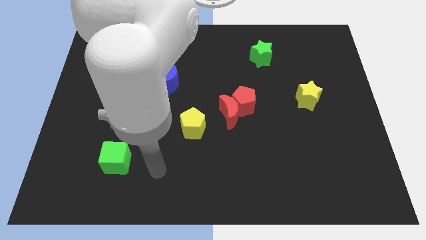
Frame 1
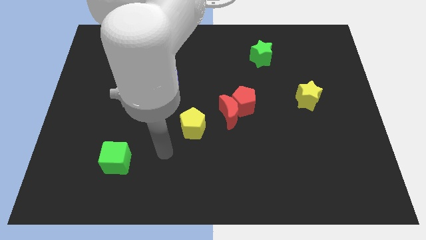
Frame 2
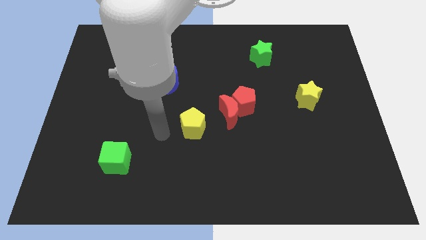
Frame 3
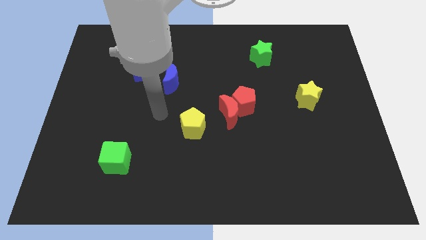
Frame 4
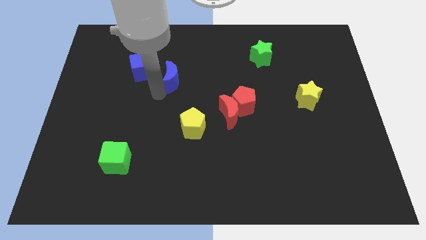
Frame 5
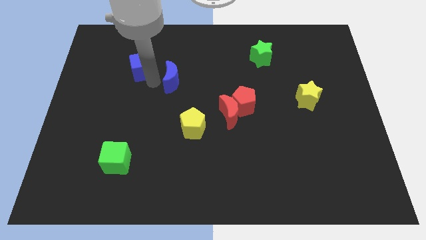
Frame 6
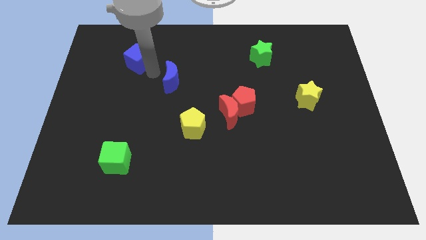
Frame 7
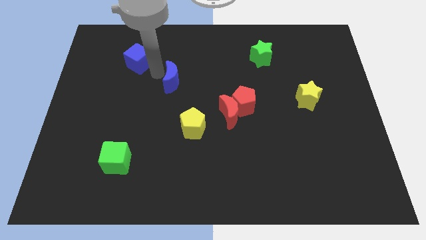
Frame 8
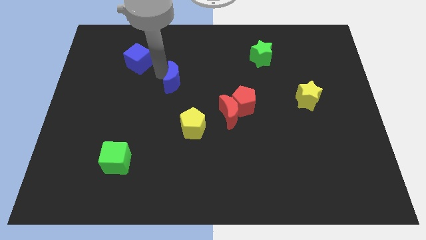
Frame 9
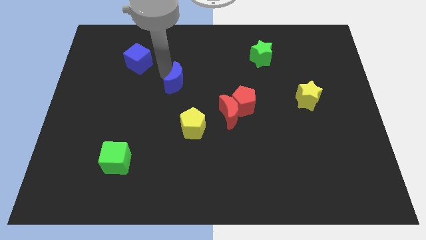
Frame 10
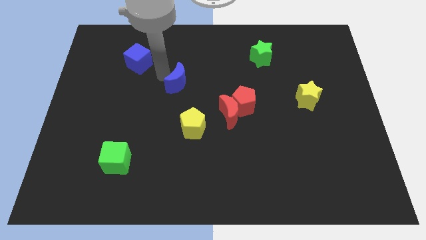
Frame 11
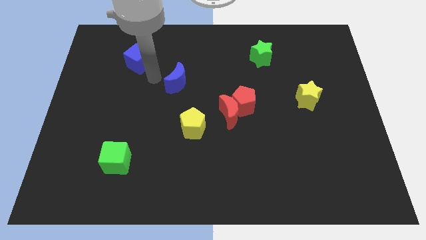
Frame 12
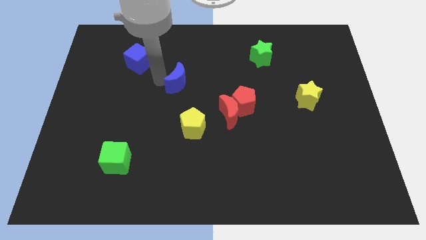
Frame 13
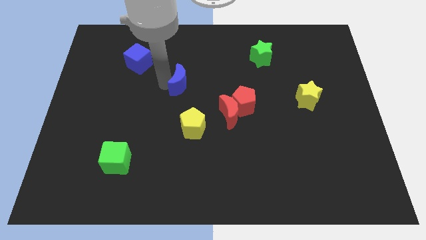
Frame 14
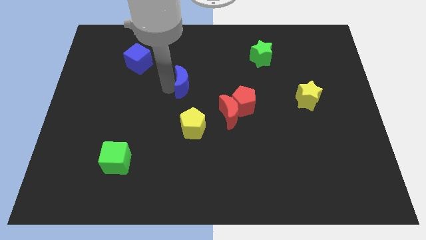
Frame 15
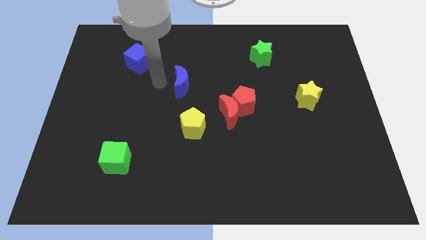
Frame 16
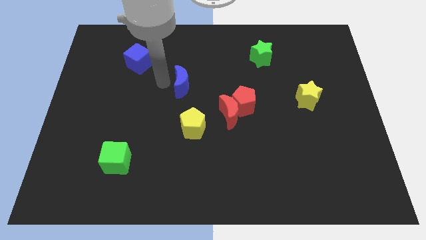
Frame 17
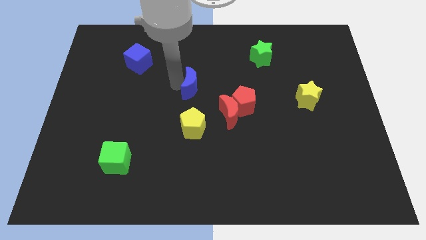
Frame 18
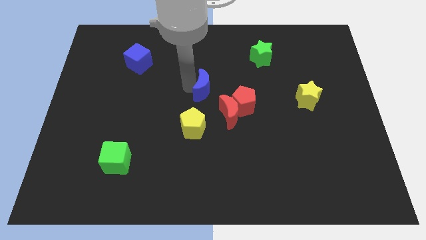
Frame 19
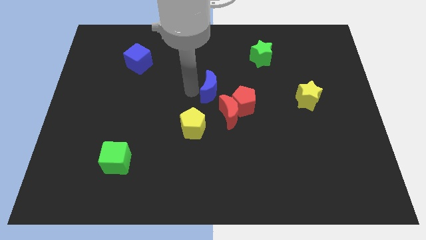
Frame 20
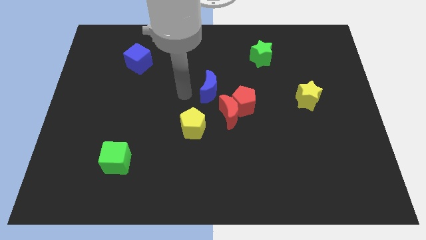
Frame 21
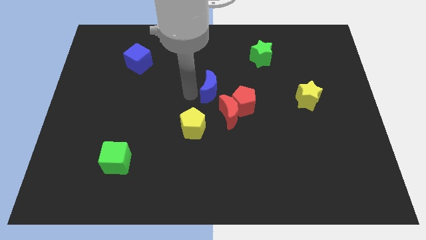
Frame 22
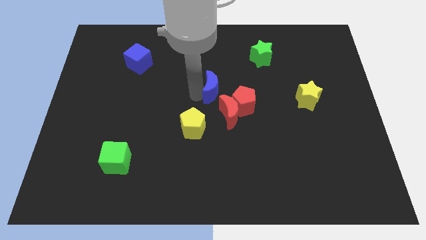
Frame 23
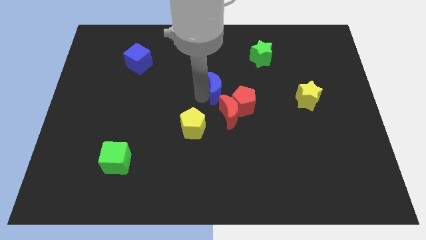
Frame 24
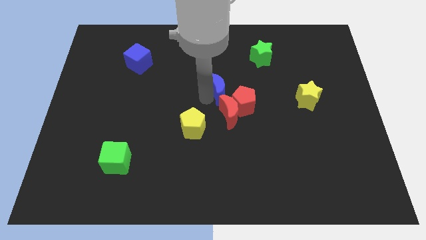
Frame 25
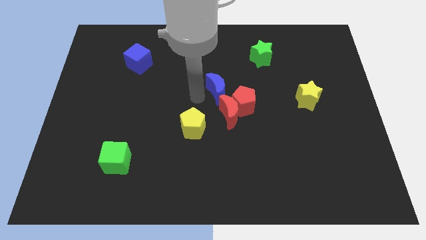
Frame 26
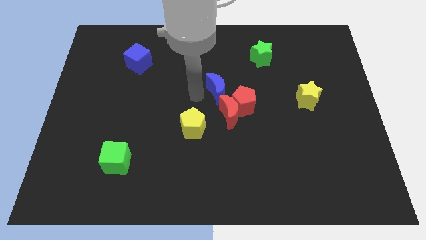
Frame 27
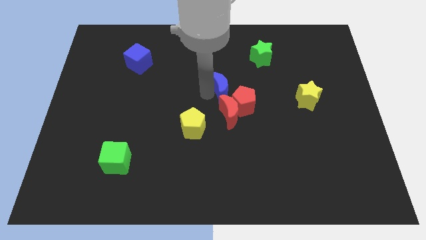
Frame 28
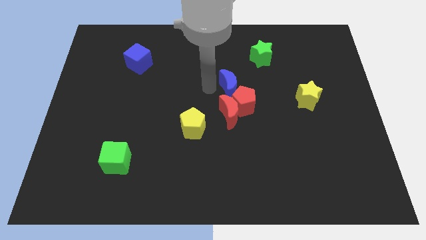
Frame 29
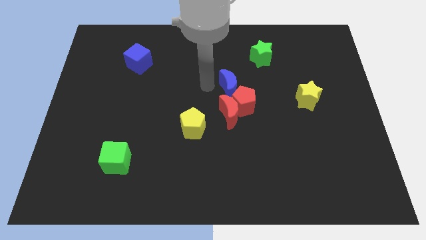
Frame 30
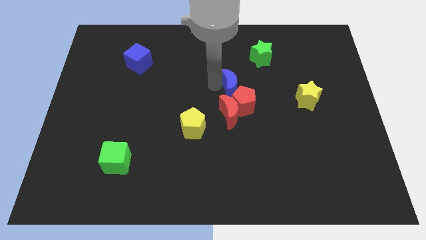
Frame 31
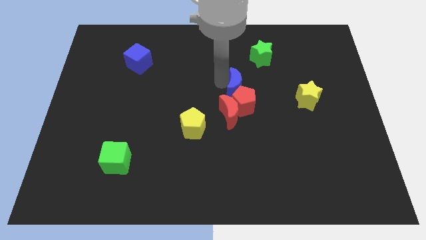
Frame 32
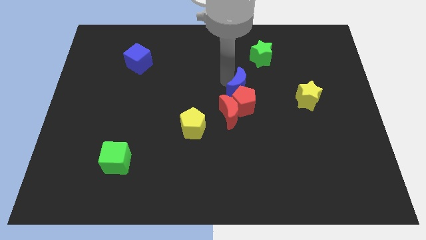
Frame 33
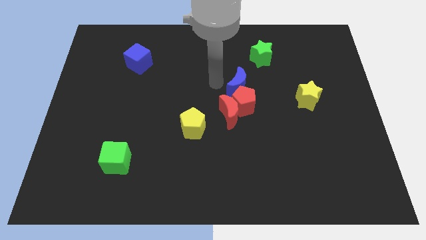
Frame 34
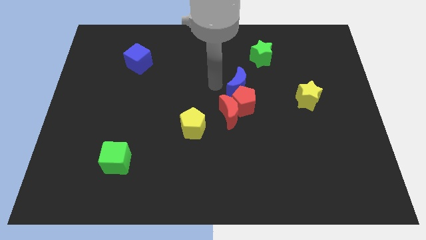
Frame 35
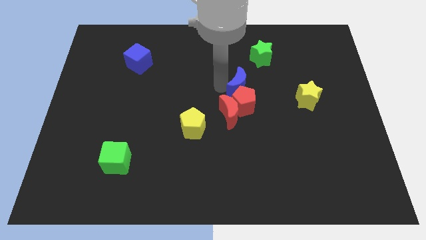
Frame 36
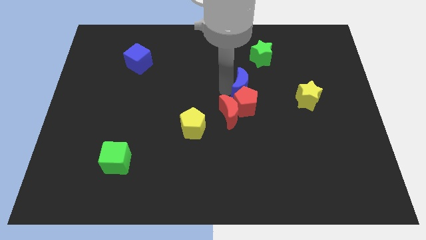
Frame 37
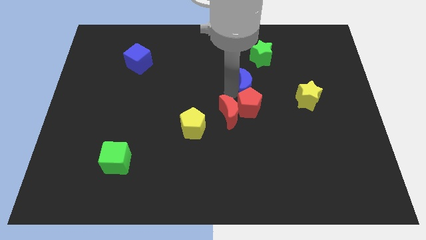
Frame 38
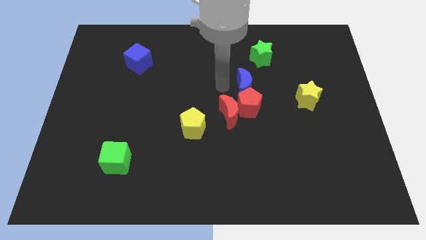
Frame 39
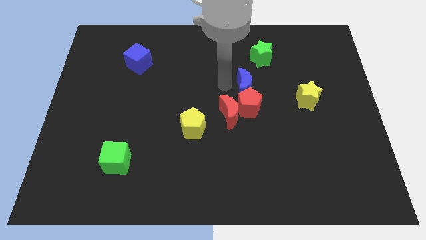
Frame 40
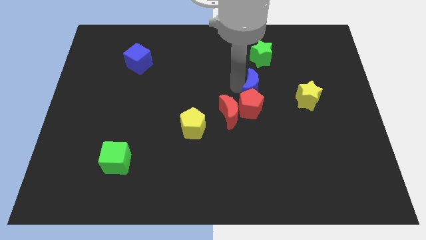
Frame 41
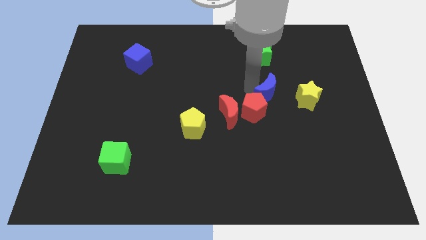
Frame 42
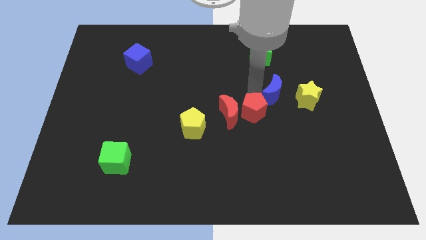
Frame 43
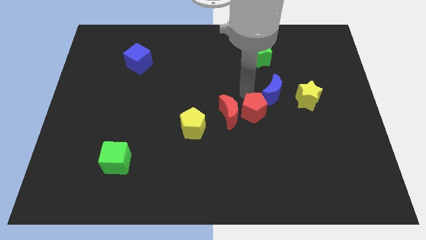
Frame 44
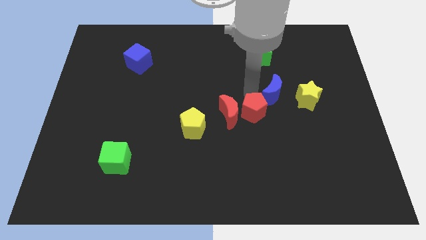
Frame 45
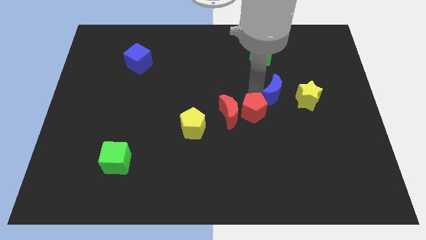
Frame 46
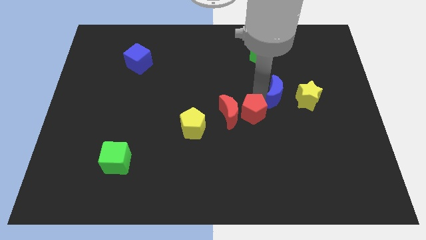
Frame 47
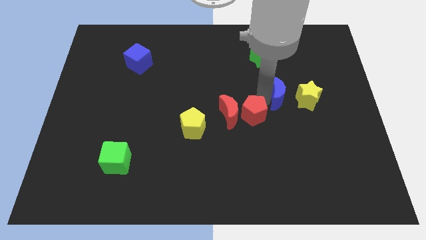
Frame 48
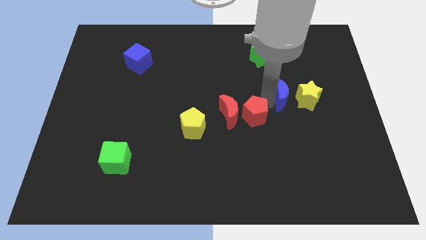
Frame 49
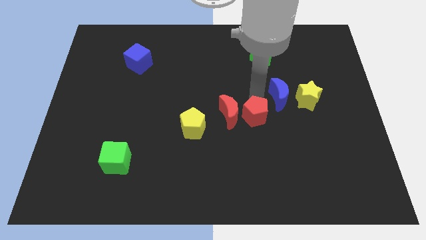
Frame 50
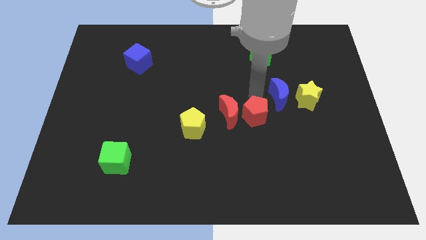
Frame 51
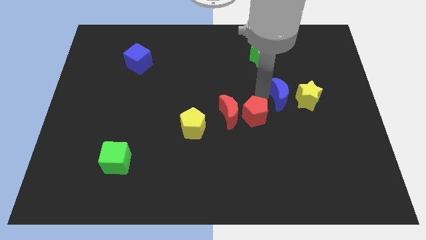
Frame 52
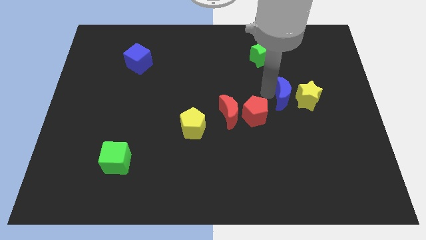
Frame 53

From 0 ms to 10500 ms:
push the blue moon to the yellow star

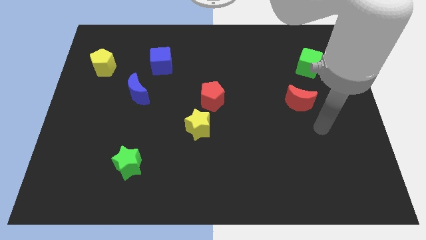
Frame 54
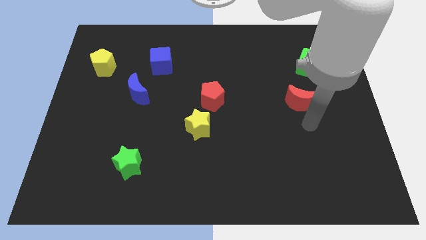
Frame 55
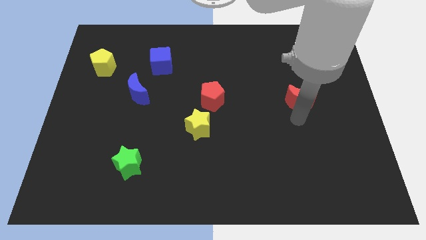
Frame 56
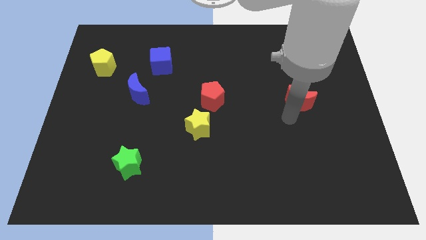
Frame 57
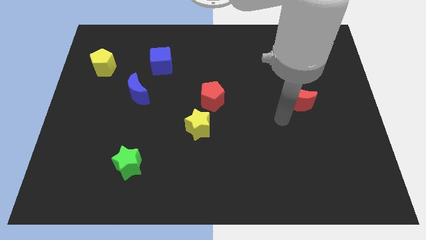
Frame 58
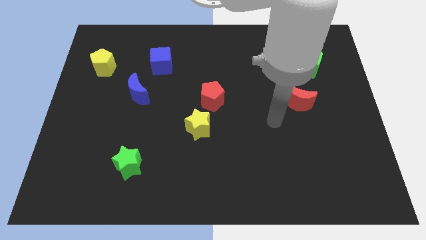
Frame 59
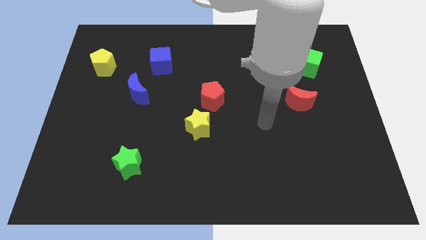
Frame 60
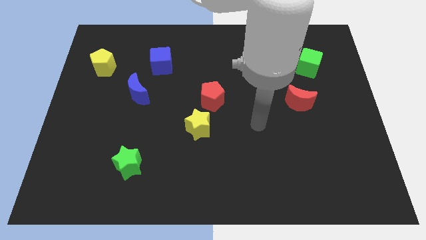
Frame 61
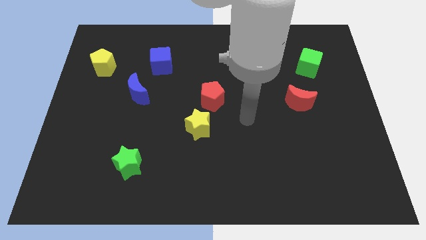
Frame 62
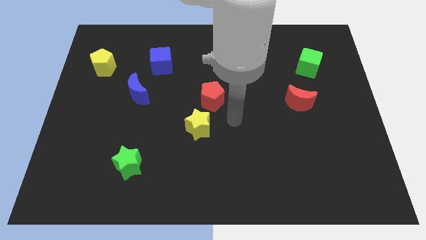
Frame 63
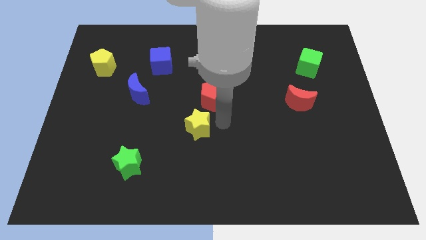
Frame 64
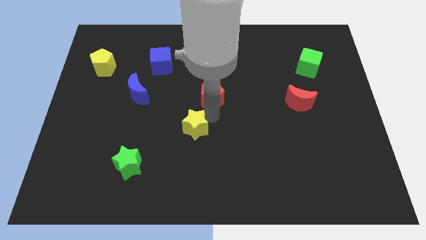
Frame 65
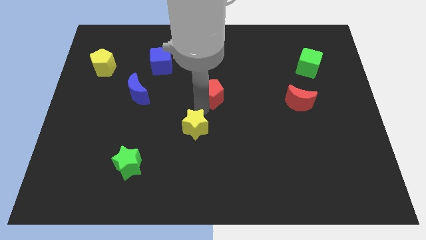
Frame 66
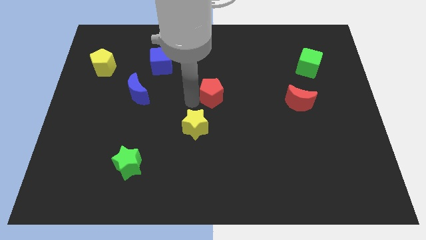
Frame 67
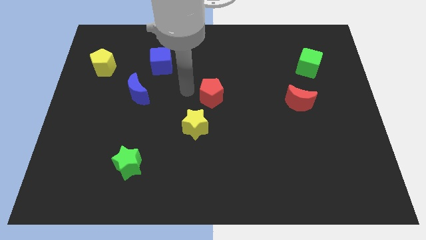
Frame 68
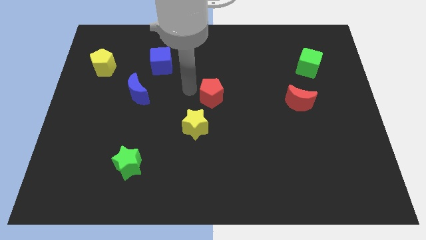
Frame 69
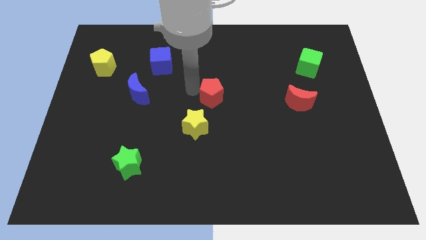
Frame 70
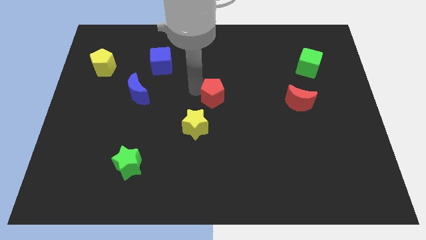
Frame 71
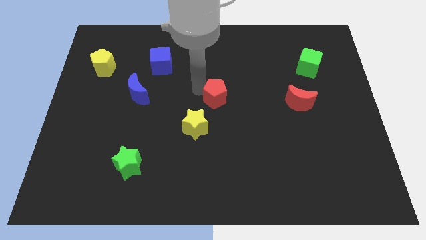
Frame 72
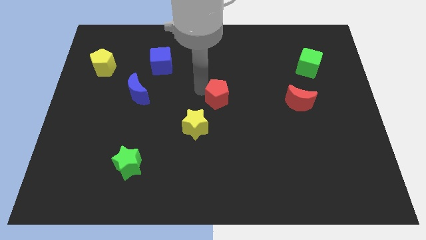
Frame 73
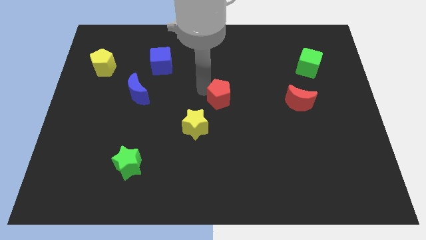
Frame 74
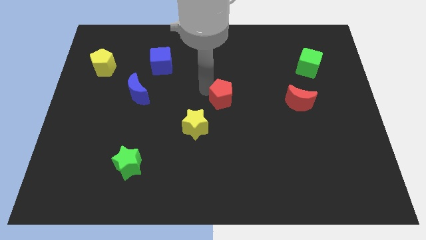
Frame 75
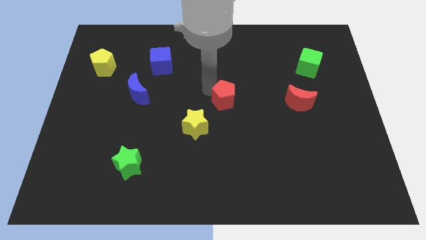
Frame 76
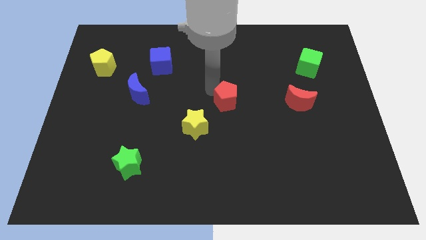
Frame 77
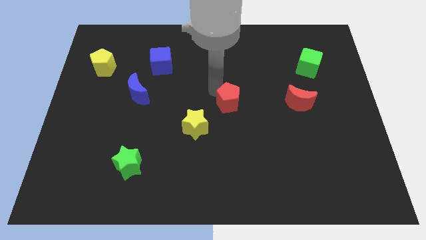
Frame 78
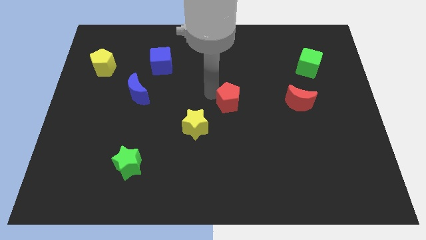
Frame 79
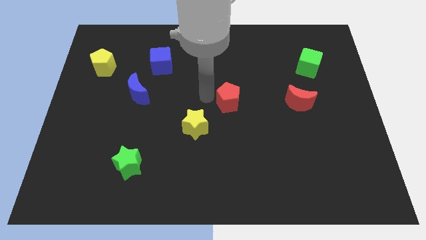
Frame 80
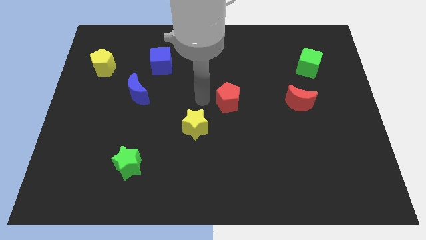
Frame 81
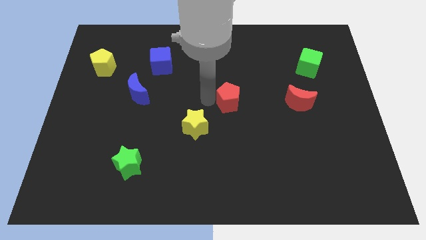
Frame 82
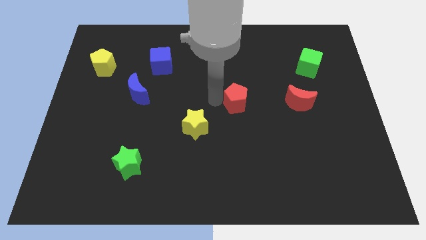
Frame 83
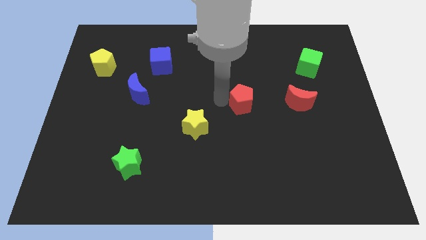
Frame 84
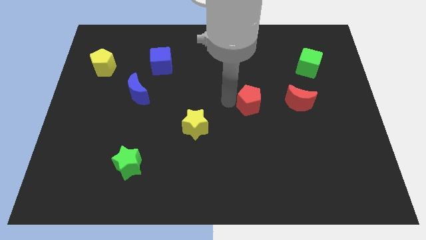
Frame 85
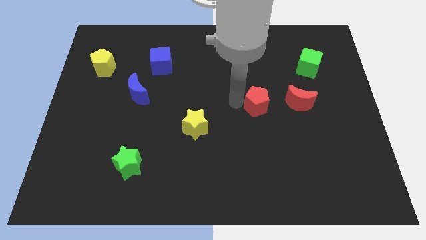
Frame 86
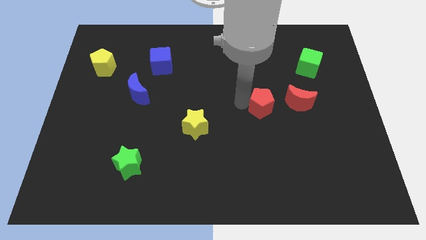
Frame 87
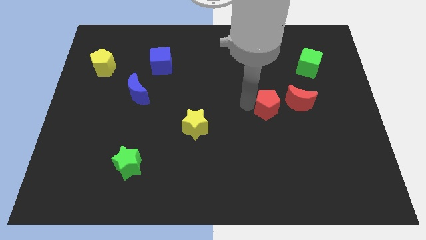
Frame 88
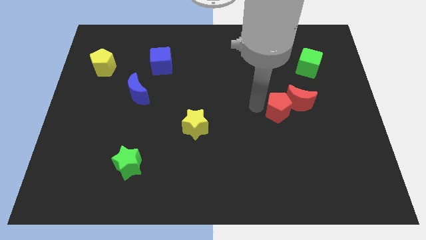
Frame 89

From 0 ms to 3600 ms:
push the red pentagon close to the red moon
